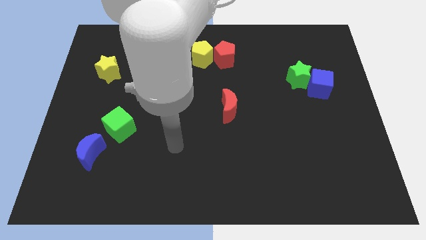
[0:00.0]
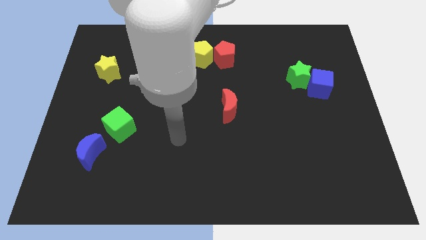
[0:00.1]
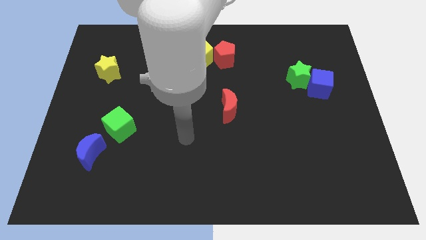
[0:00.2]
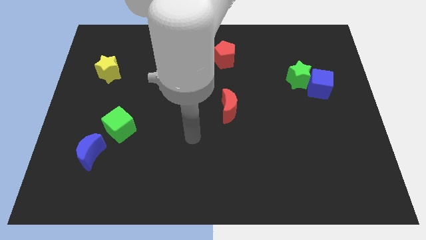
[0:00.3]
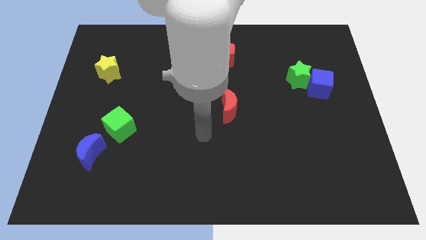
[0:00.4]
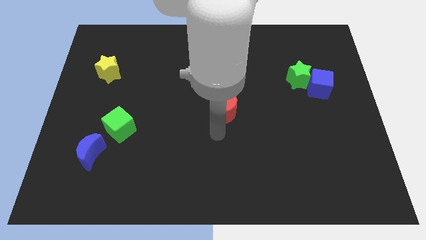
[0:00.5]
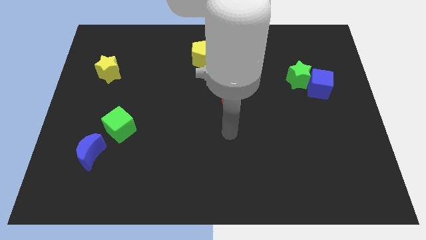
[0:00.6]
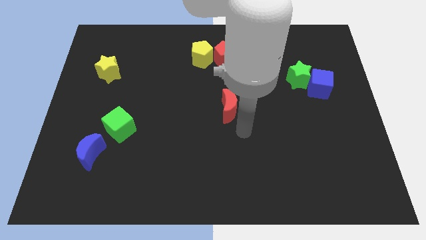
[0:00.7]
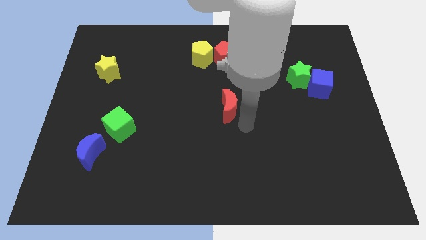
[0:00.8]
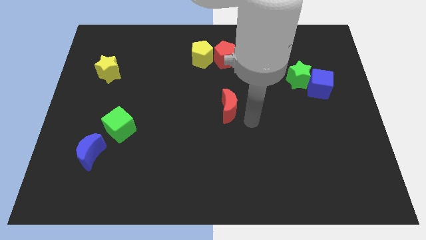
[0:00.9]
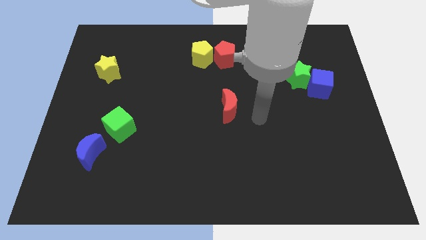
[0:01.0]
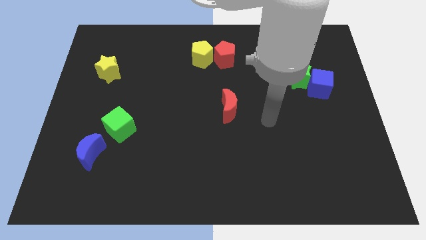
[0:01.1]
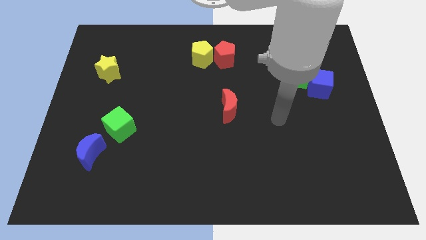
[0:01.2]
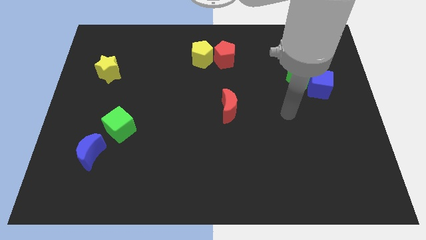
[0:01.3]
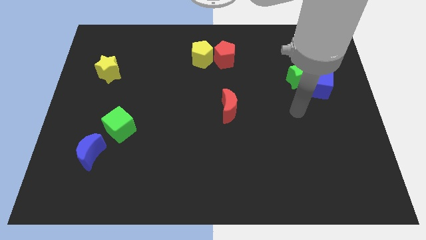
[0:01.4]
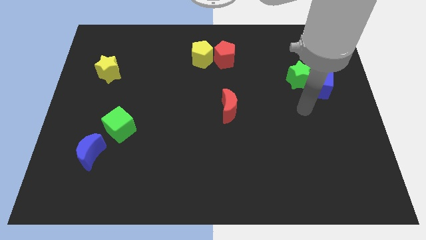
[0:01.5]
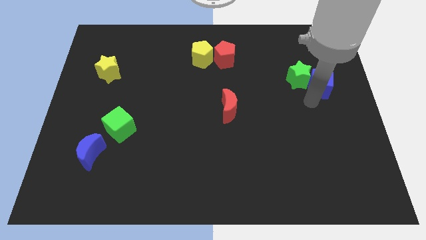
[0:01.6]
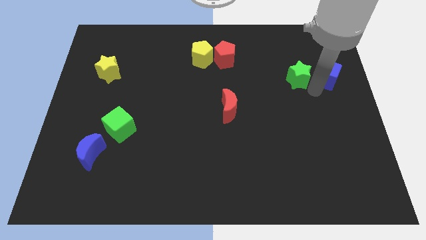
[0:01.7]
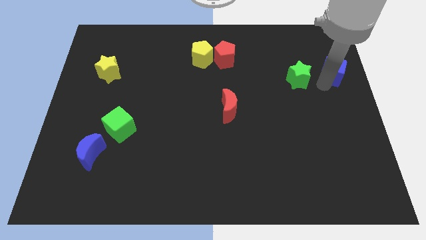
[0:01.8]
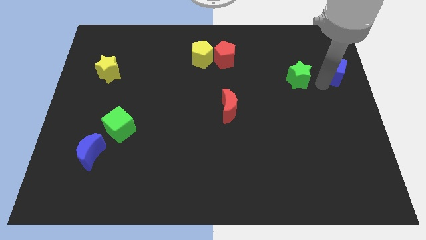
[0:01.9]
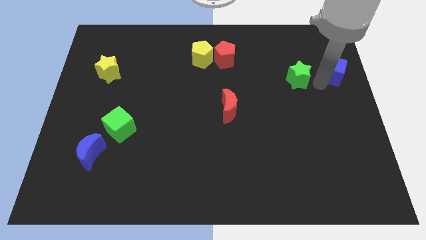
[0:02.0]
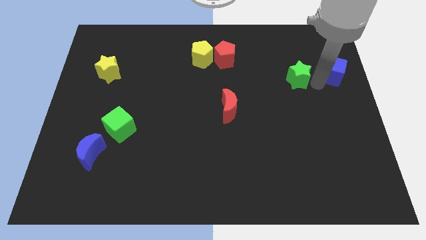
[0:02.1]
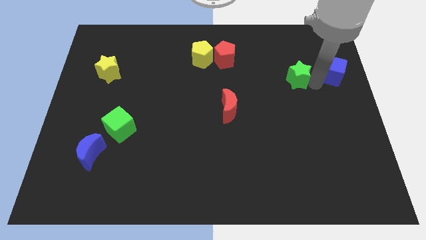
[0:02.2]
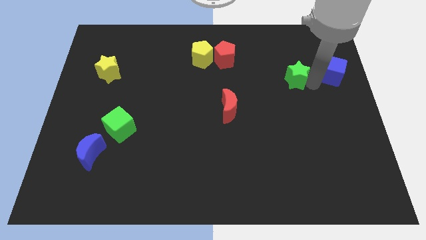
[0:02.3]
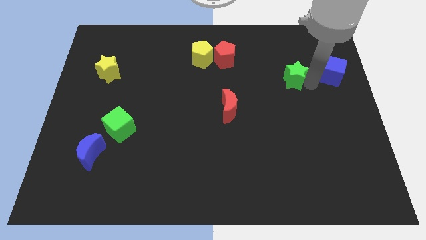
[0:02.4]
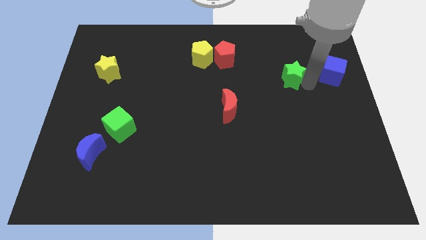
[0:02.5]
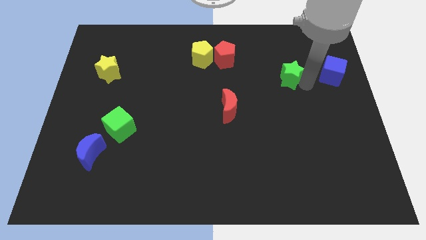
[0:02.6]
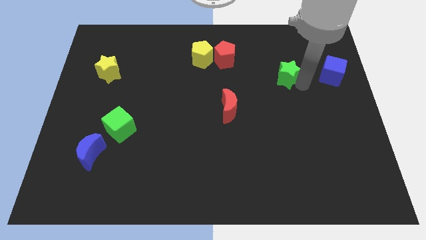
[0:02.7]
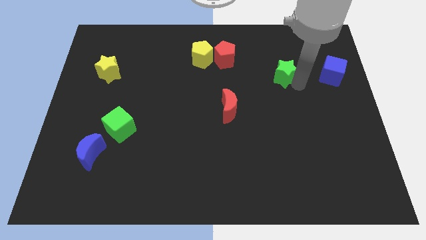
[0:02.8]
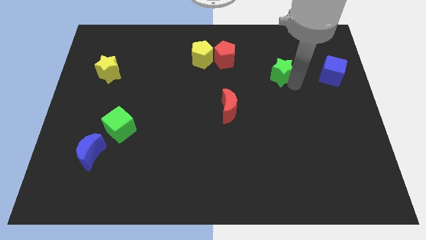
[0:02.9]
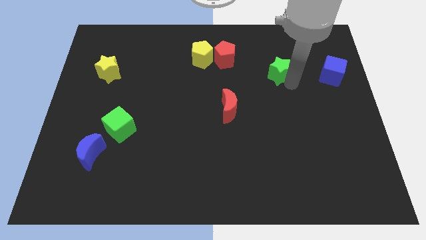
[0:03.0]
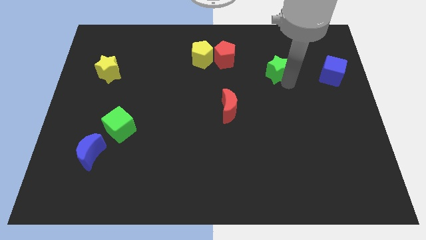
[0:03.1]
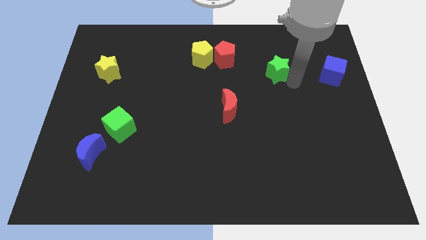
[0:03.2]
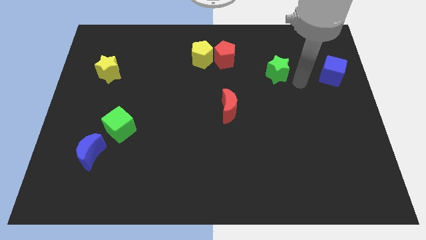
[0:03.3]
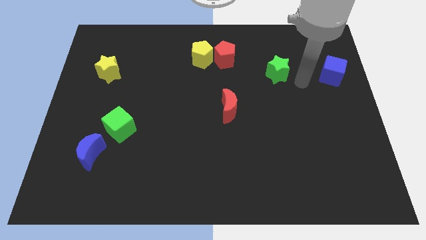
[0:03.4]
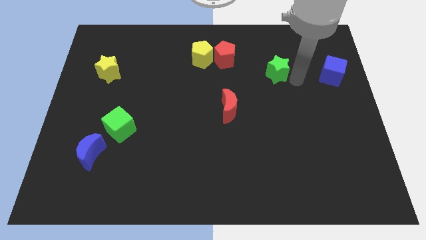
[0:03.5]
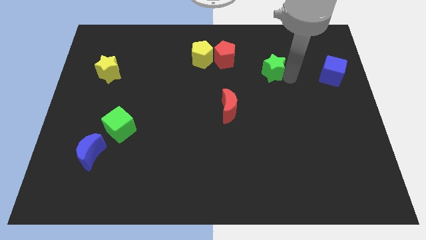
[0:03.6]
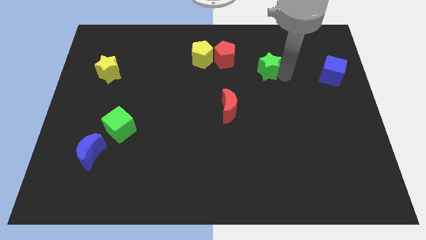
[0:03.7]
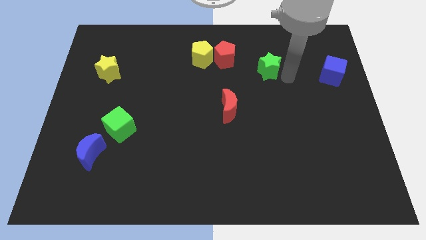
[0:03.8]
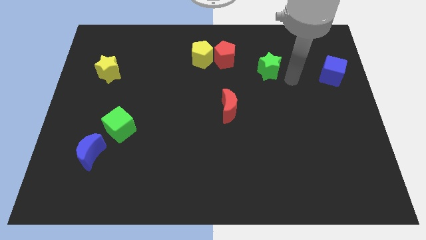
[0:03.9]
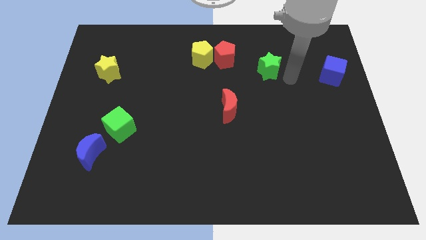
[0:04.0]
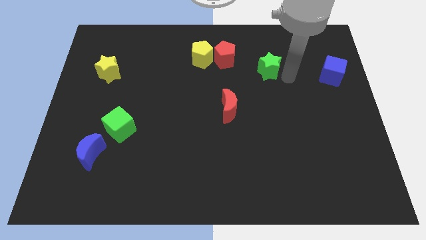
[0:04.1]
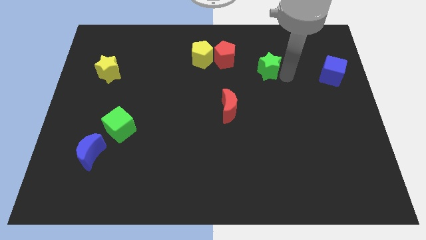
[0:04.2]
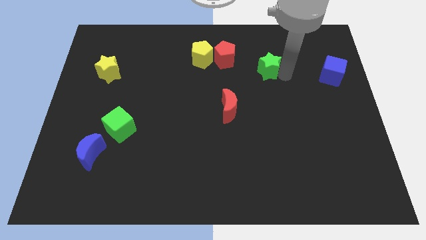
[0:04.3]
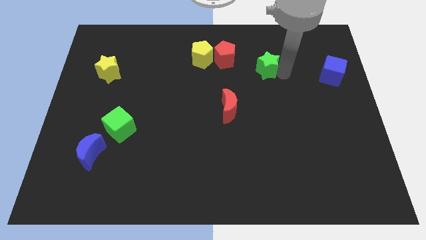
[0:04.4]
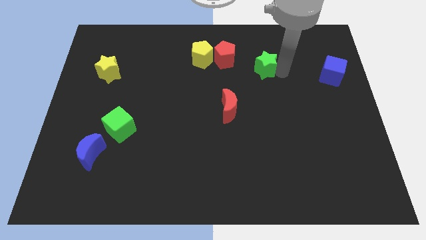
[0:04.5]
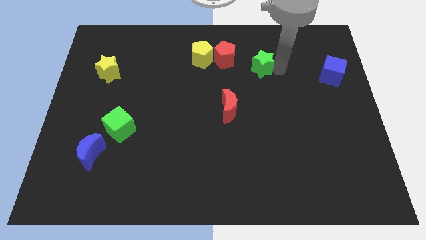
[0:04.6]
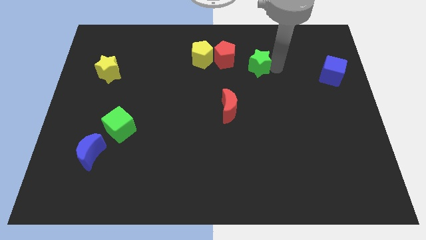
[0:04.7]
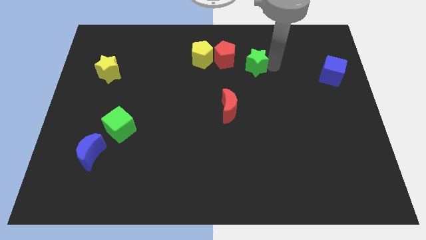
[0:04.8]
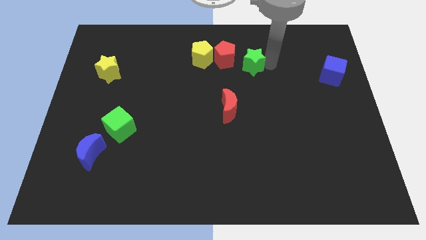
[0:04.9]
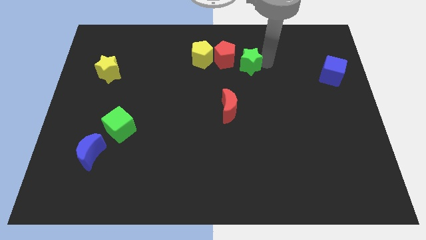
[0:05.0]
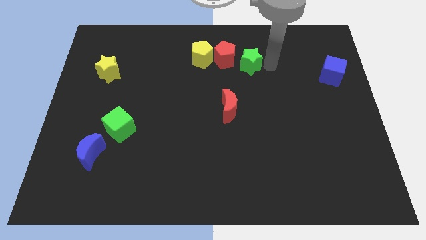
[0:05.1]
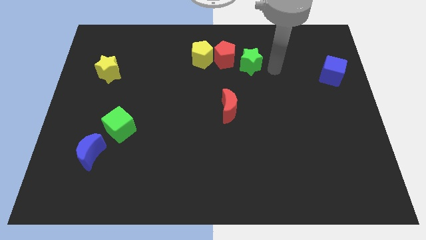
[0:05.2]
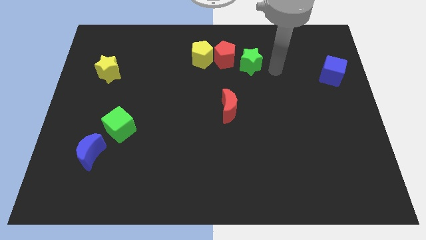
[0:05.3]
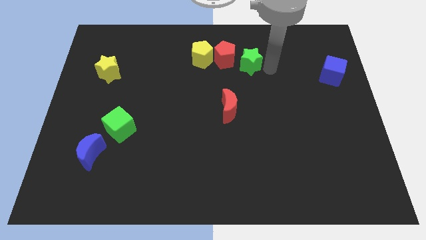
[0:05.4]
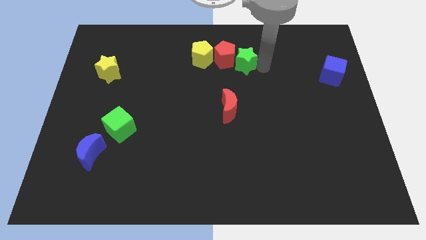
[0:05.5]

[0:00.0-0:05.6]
push the green star to the red pentagon

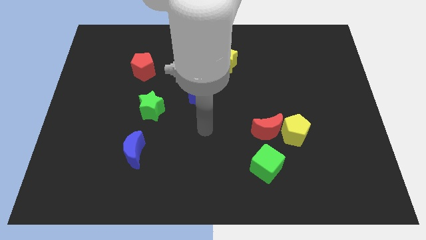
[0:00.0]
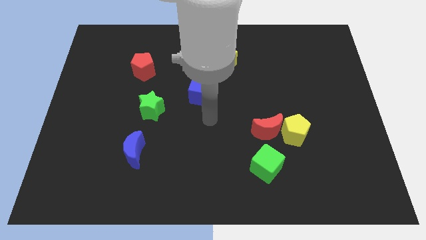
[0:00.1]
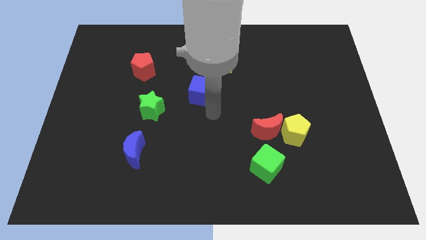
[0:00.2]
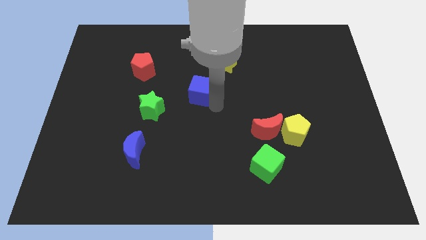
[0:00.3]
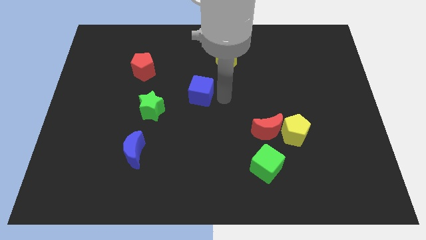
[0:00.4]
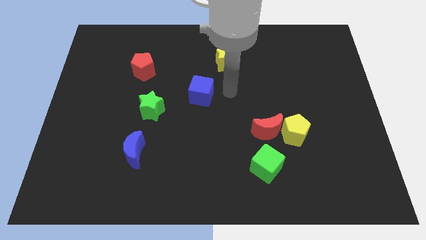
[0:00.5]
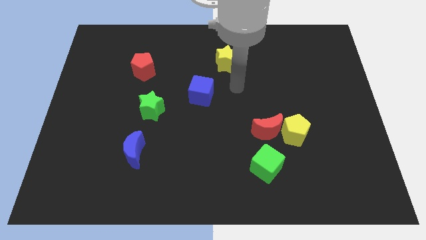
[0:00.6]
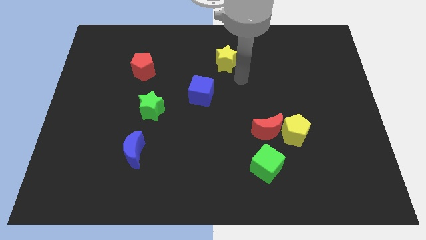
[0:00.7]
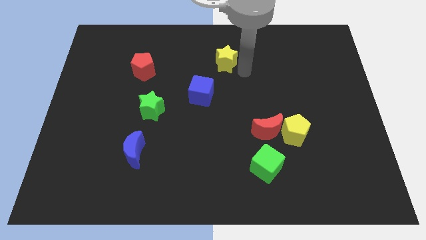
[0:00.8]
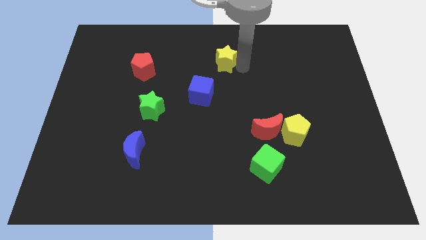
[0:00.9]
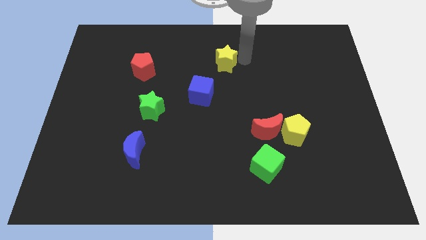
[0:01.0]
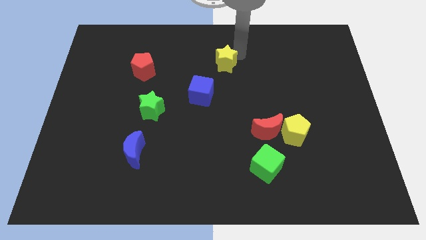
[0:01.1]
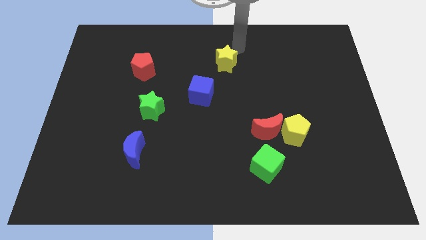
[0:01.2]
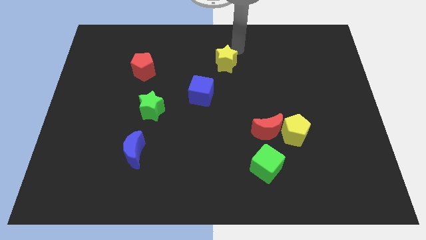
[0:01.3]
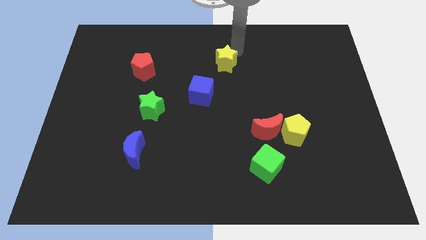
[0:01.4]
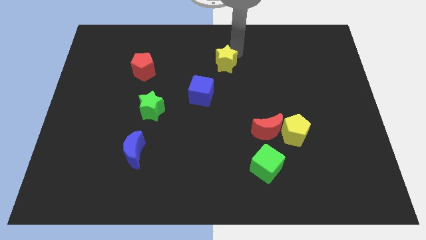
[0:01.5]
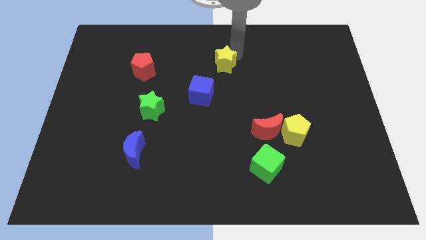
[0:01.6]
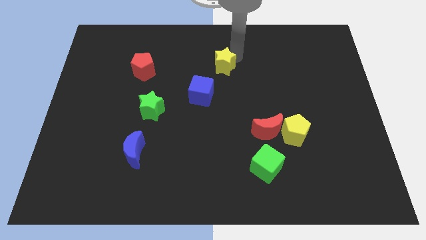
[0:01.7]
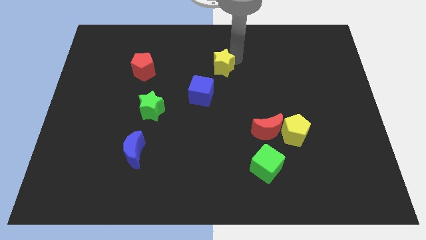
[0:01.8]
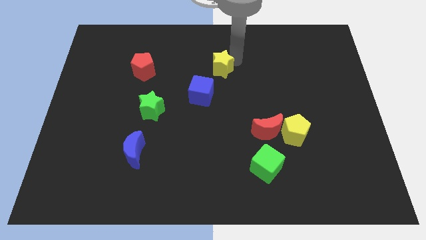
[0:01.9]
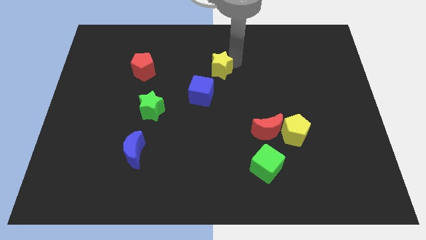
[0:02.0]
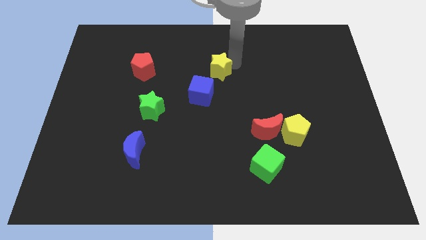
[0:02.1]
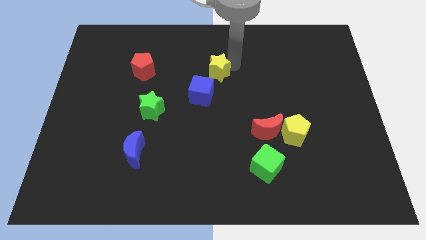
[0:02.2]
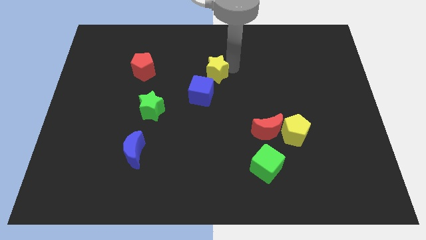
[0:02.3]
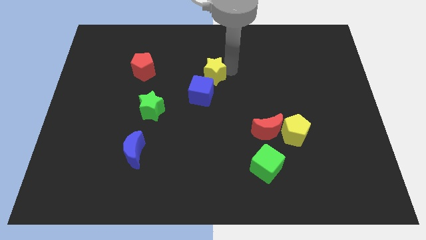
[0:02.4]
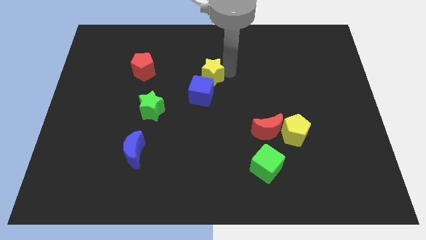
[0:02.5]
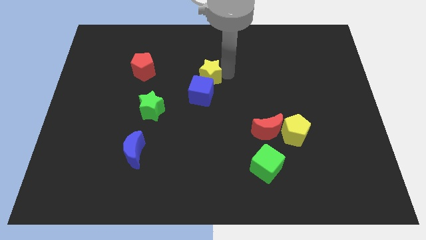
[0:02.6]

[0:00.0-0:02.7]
put the yellow star towards the blue cube
